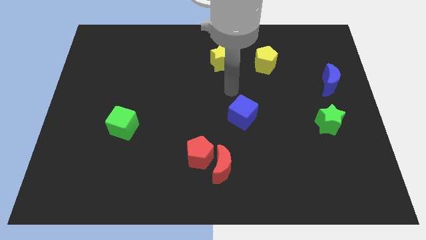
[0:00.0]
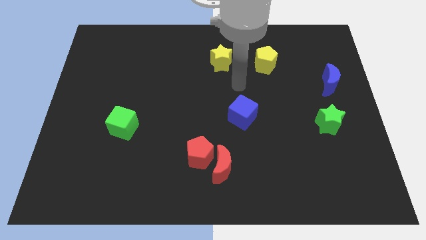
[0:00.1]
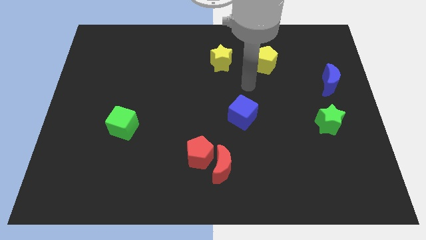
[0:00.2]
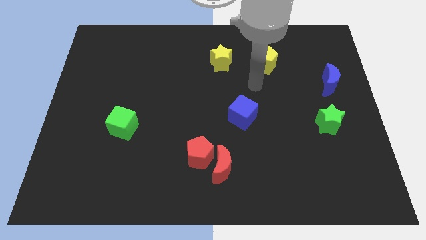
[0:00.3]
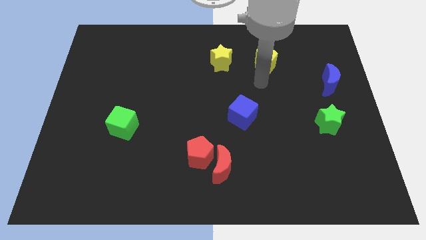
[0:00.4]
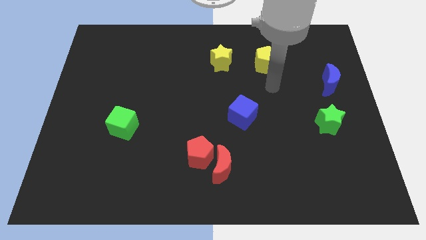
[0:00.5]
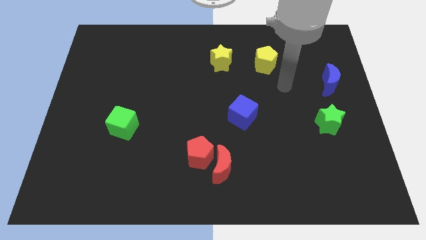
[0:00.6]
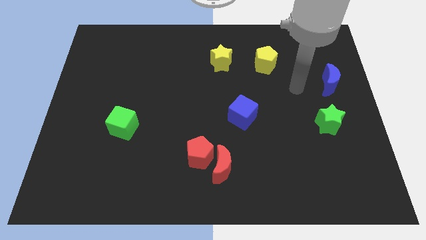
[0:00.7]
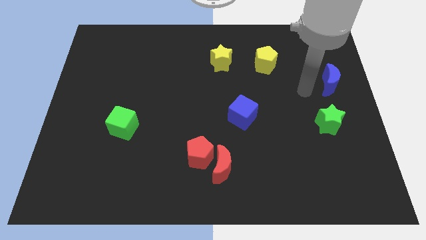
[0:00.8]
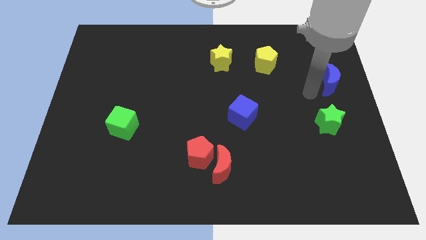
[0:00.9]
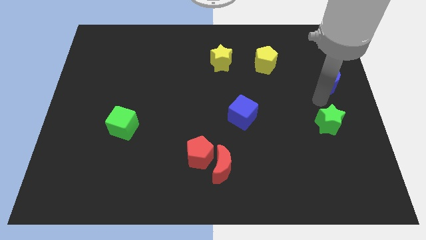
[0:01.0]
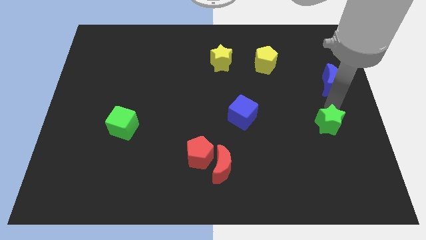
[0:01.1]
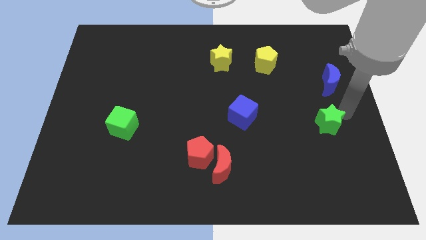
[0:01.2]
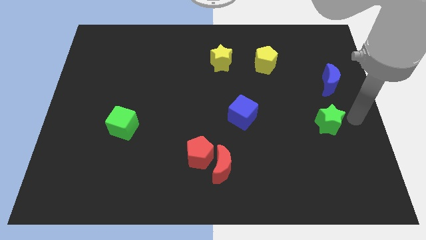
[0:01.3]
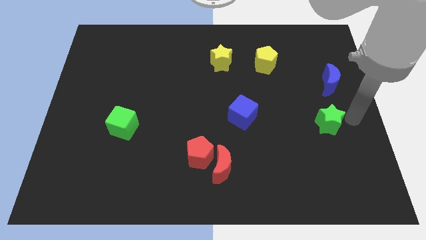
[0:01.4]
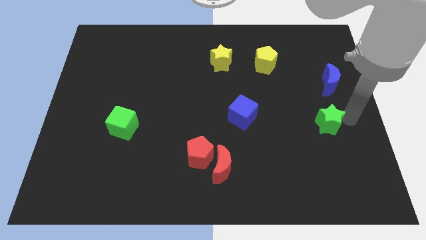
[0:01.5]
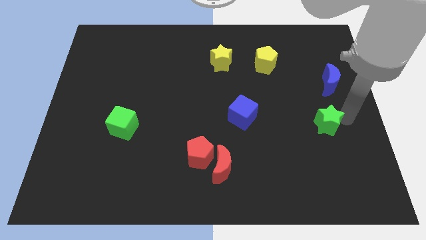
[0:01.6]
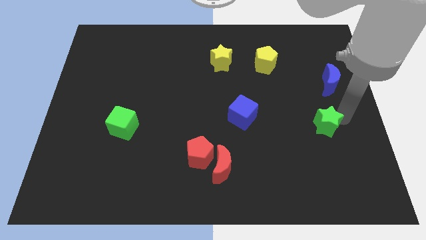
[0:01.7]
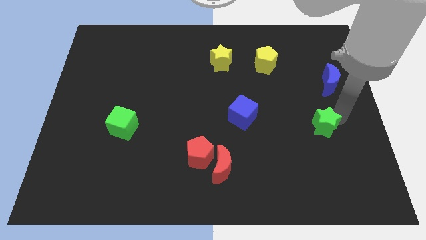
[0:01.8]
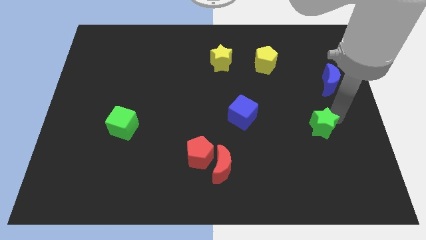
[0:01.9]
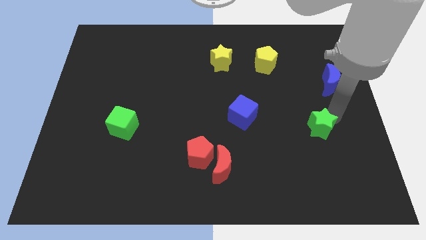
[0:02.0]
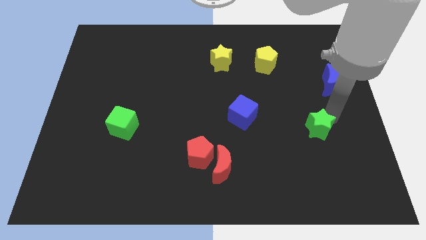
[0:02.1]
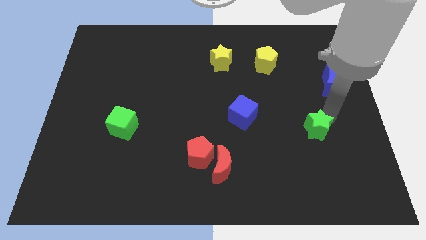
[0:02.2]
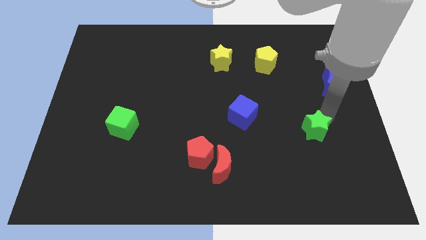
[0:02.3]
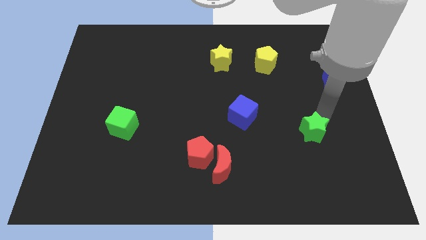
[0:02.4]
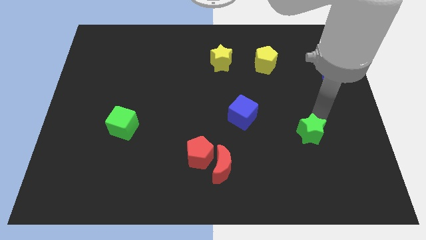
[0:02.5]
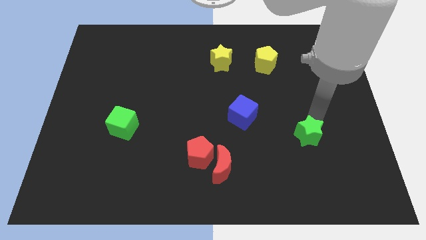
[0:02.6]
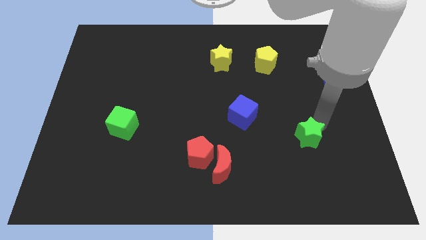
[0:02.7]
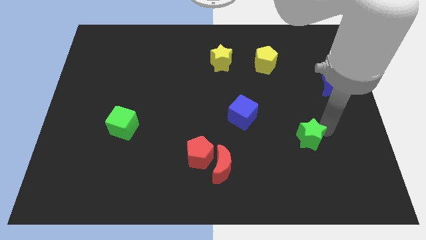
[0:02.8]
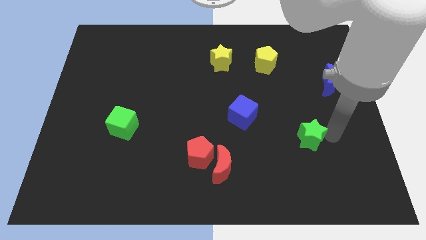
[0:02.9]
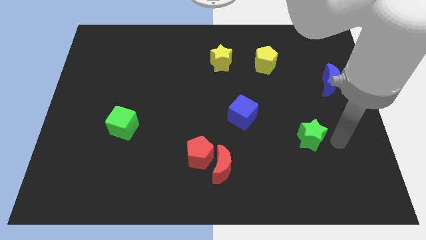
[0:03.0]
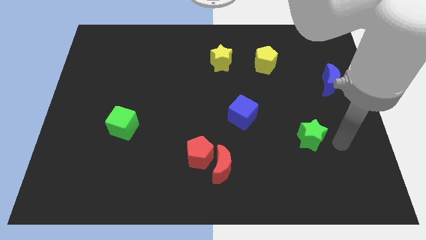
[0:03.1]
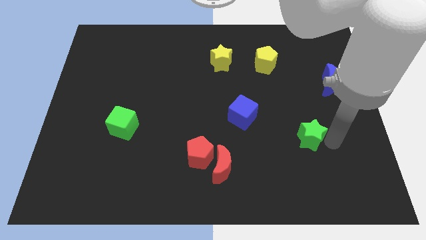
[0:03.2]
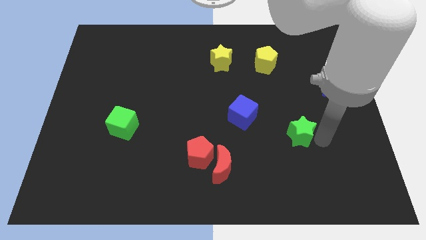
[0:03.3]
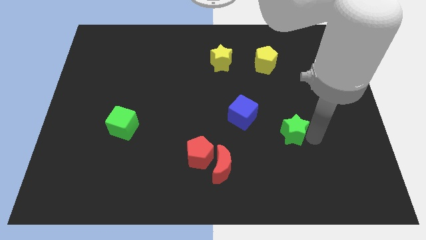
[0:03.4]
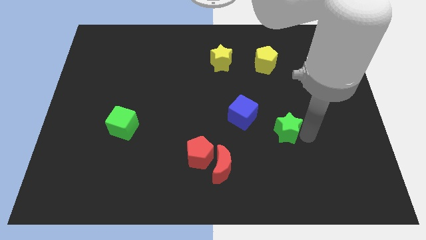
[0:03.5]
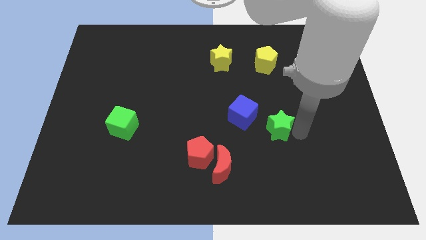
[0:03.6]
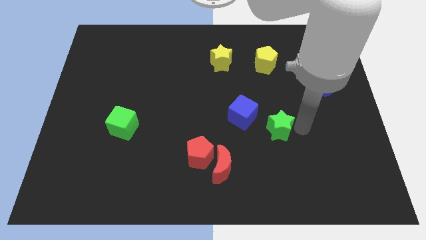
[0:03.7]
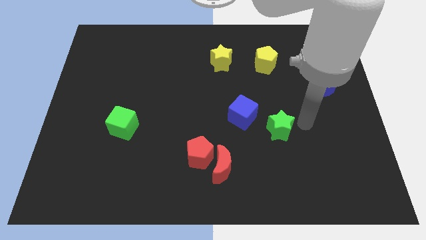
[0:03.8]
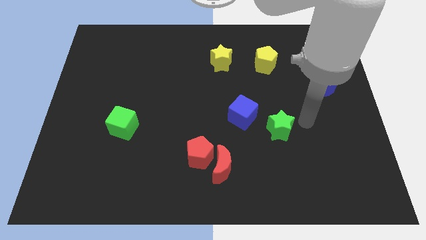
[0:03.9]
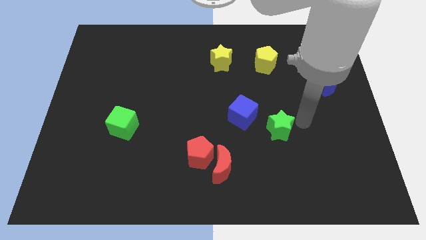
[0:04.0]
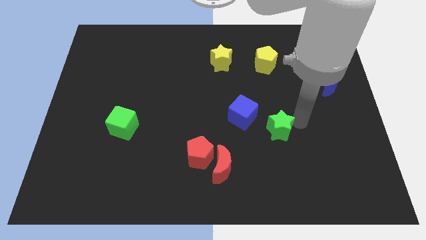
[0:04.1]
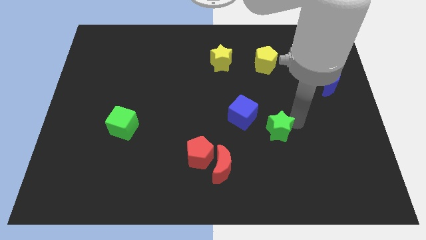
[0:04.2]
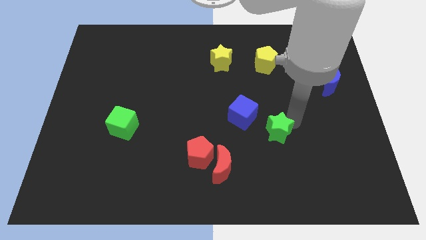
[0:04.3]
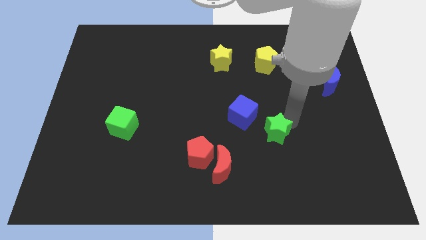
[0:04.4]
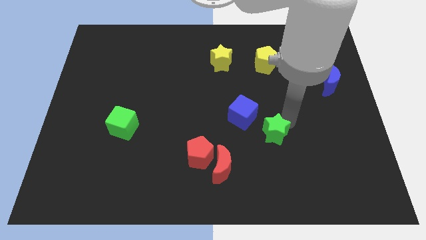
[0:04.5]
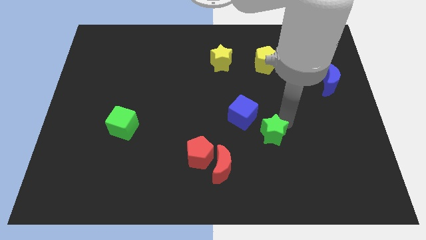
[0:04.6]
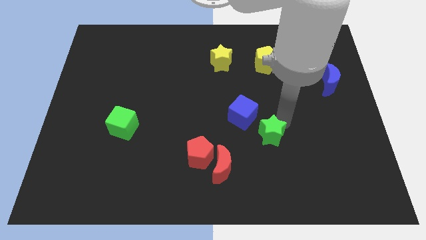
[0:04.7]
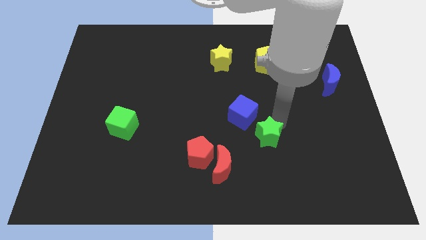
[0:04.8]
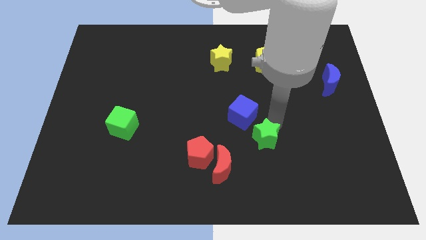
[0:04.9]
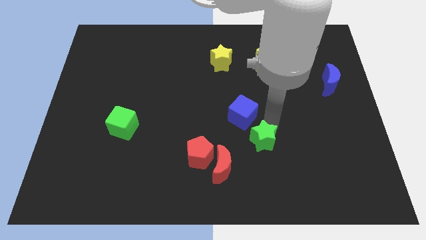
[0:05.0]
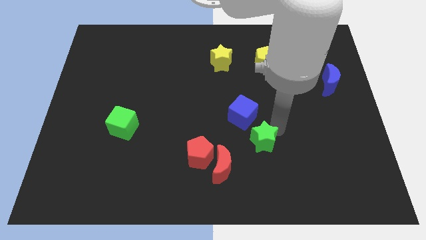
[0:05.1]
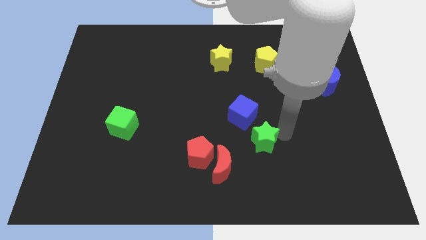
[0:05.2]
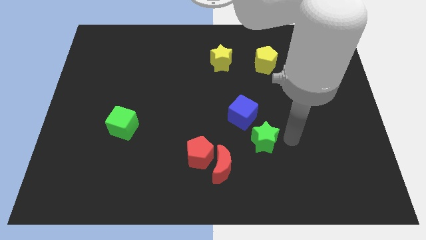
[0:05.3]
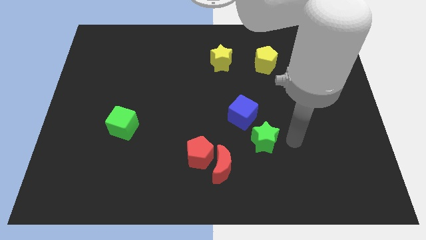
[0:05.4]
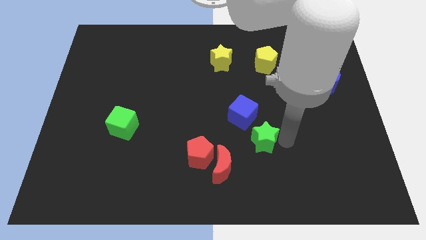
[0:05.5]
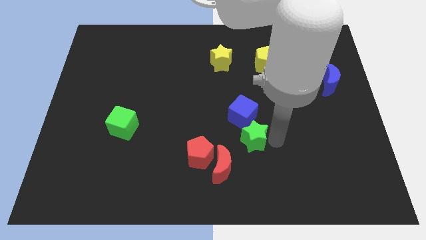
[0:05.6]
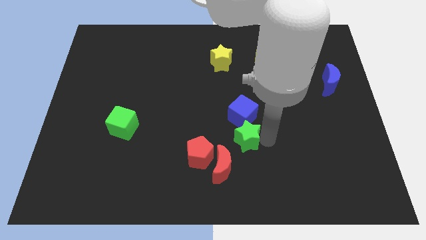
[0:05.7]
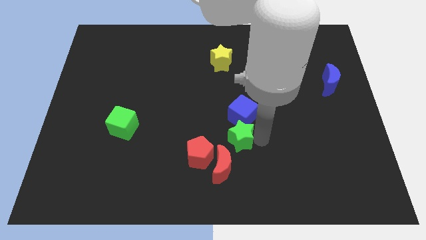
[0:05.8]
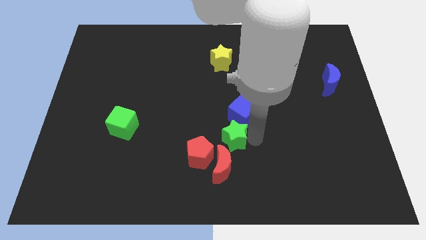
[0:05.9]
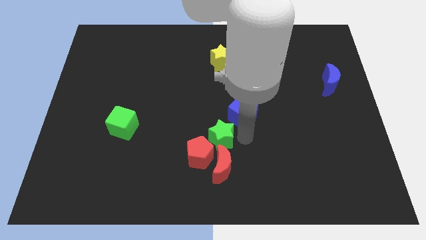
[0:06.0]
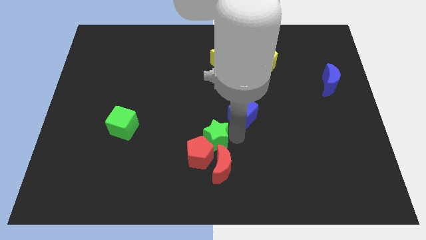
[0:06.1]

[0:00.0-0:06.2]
move the green star diagonally up and to the left of the red moon

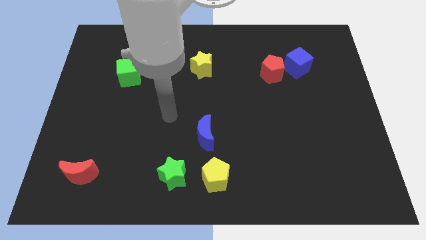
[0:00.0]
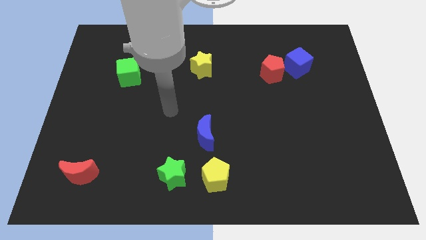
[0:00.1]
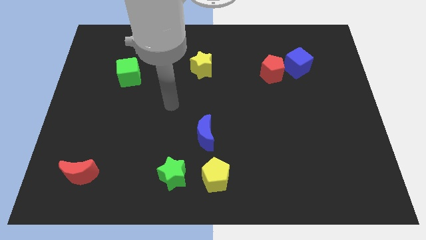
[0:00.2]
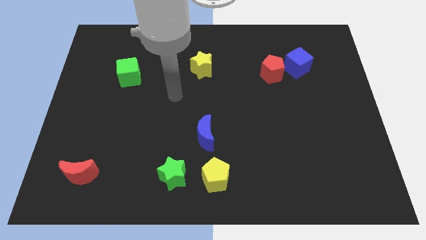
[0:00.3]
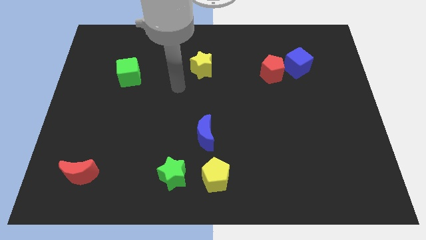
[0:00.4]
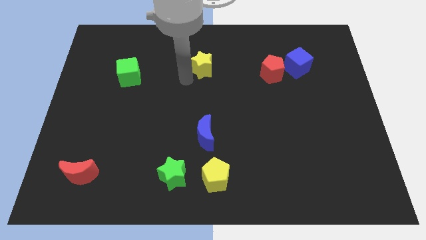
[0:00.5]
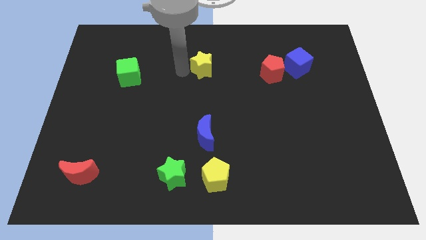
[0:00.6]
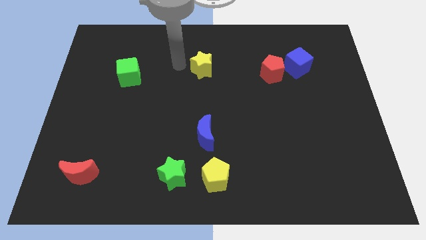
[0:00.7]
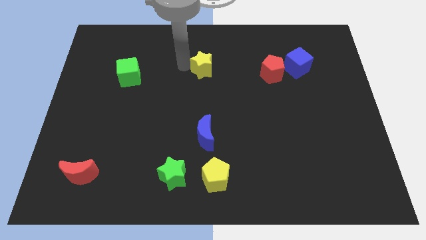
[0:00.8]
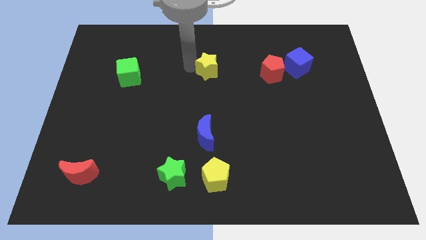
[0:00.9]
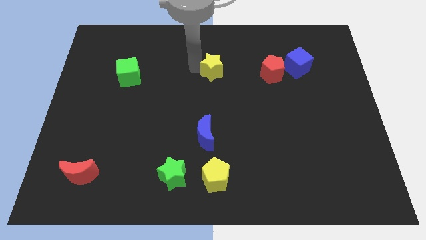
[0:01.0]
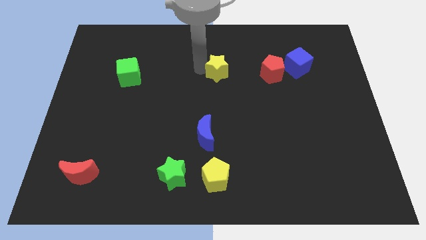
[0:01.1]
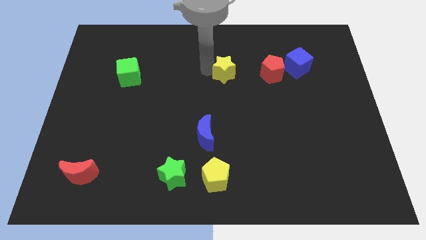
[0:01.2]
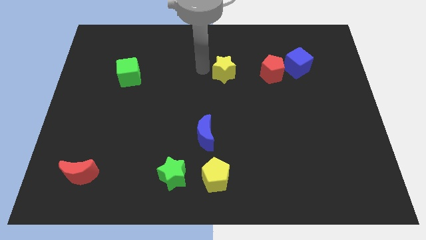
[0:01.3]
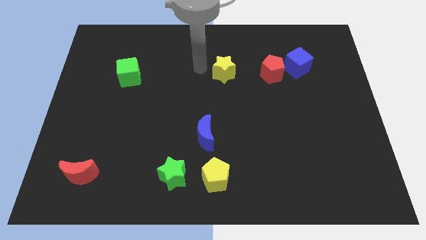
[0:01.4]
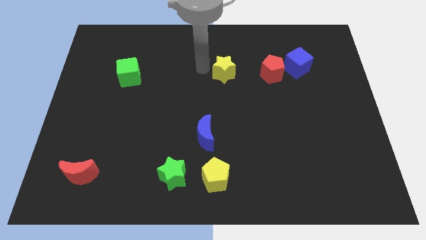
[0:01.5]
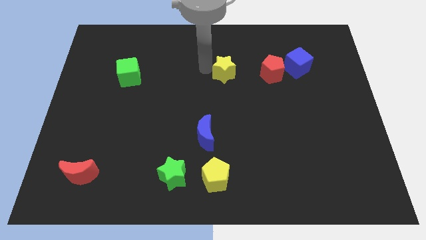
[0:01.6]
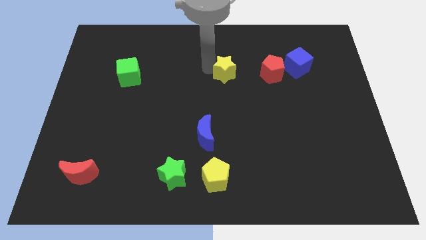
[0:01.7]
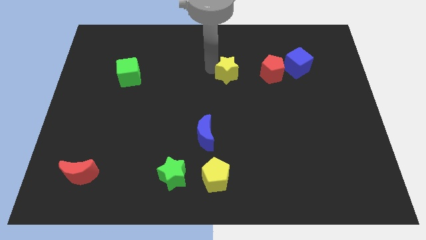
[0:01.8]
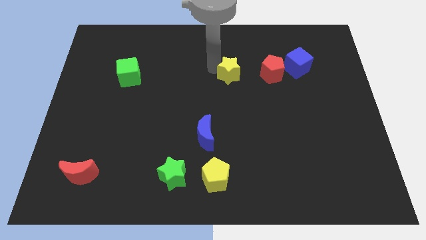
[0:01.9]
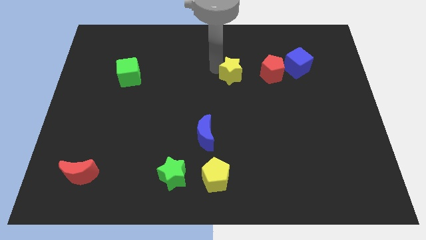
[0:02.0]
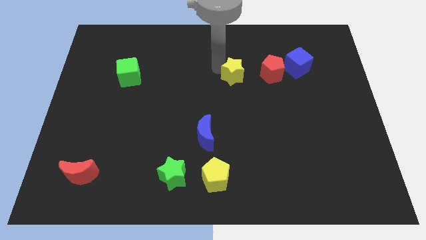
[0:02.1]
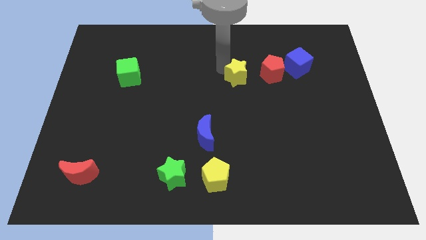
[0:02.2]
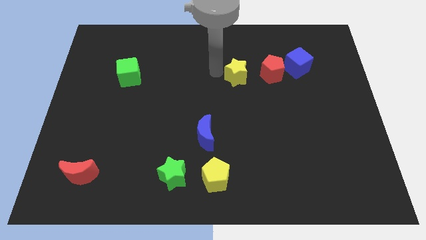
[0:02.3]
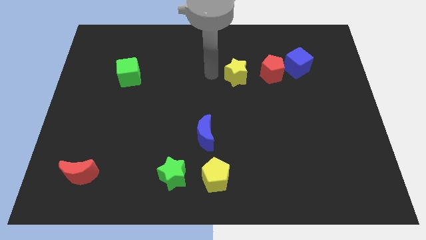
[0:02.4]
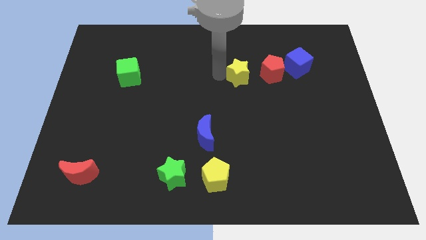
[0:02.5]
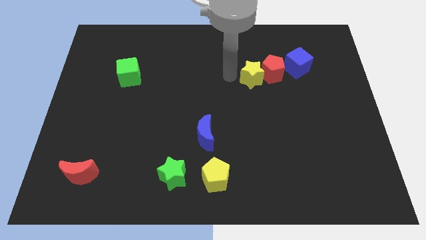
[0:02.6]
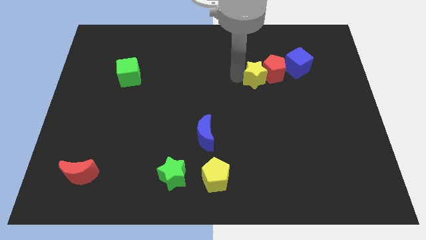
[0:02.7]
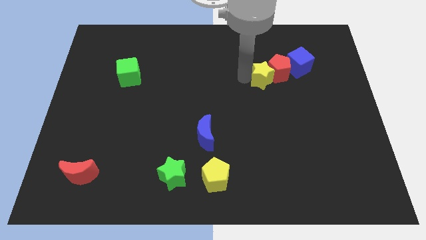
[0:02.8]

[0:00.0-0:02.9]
put the yellow star to the bottom left side of the blue cube
